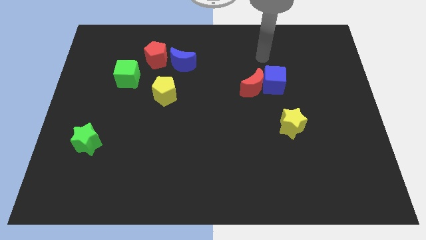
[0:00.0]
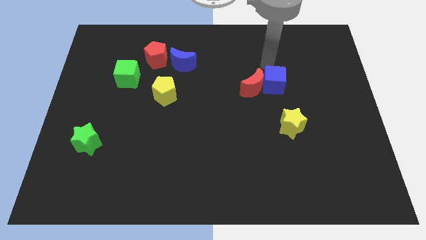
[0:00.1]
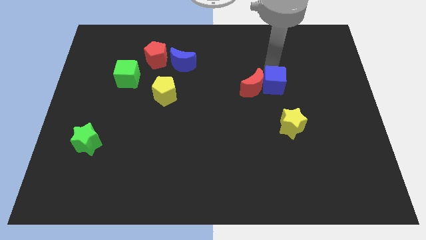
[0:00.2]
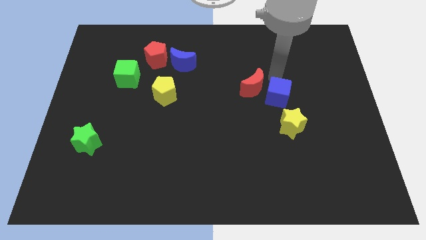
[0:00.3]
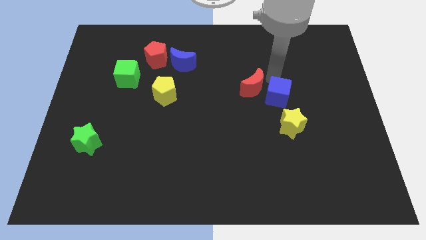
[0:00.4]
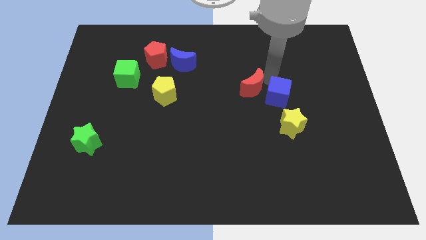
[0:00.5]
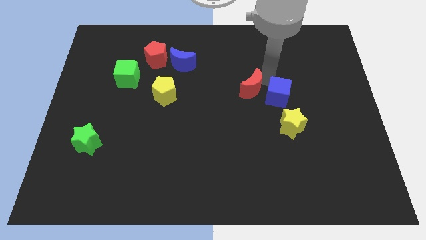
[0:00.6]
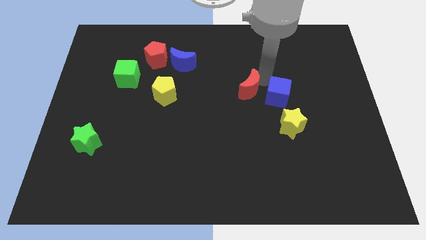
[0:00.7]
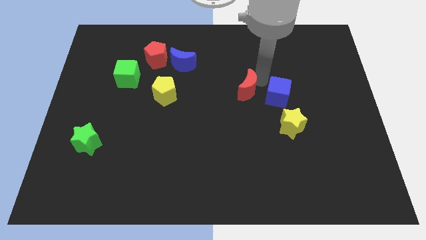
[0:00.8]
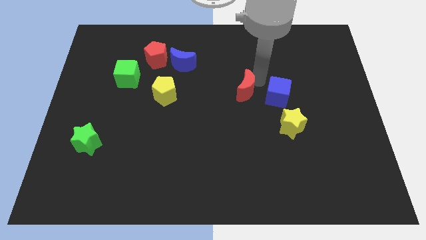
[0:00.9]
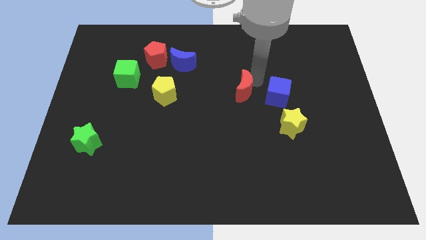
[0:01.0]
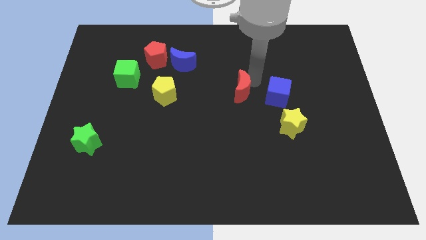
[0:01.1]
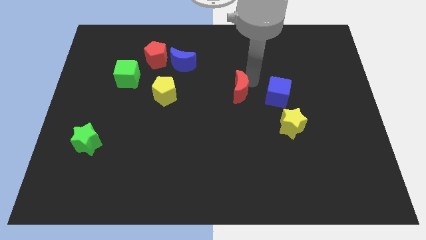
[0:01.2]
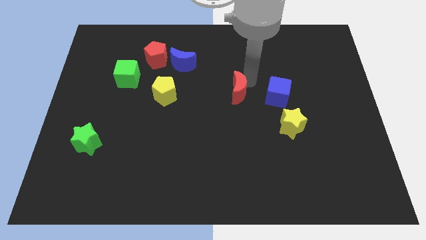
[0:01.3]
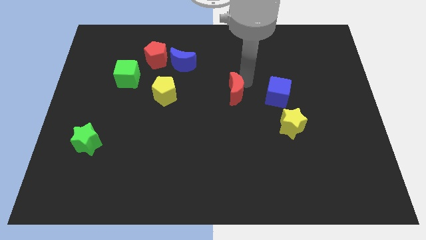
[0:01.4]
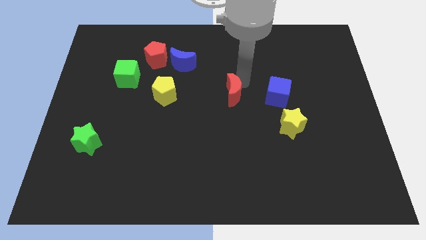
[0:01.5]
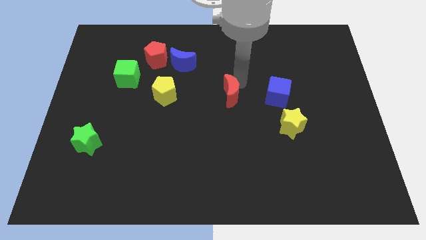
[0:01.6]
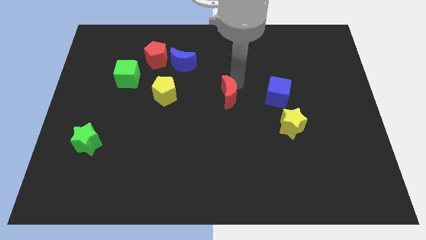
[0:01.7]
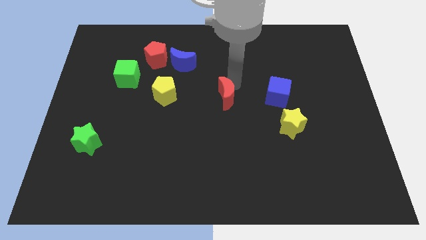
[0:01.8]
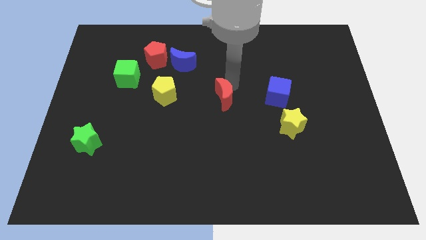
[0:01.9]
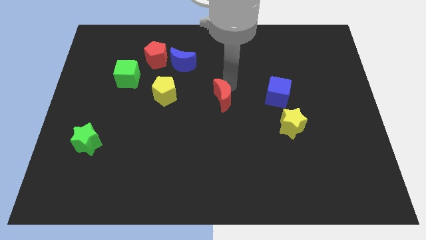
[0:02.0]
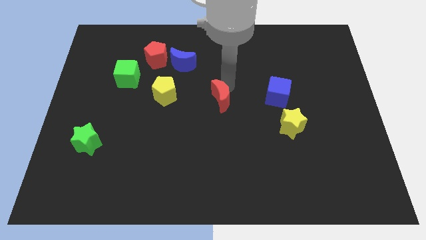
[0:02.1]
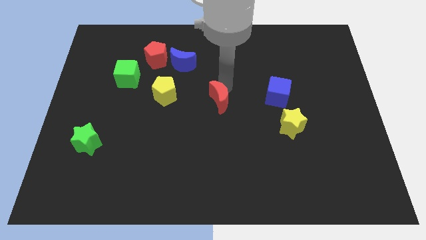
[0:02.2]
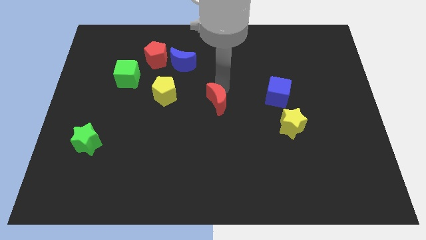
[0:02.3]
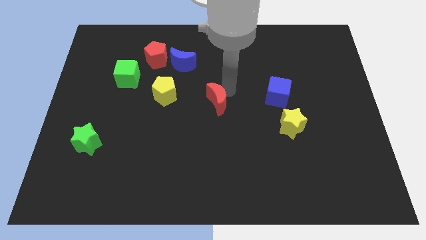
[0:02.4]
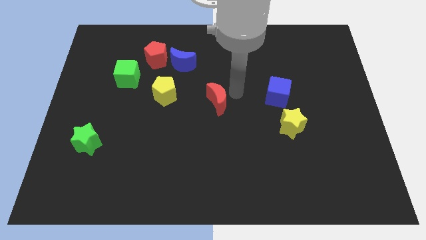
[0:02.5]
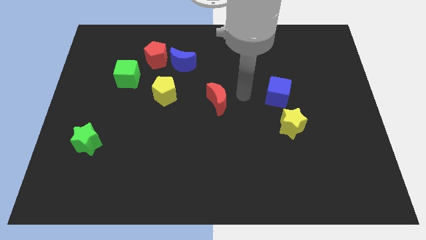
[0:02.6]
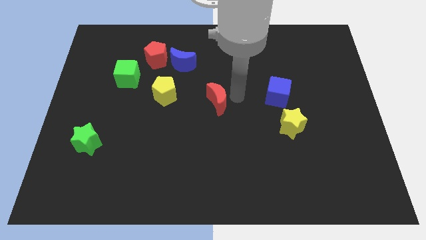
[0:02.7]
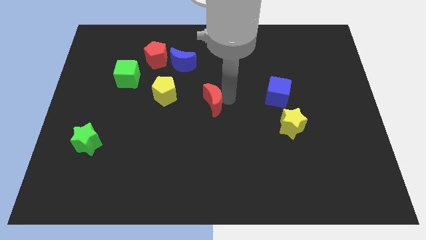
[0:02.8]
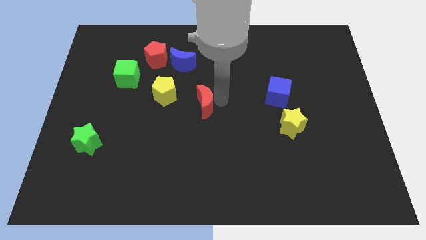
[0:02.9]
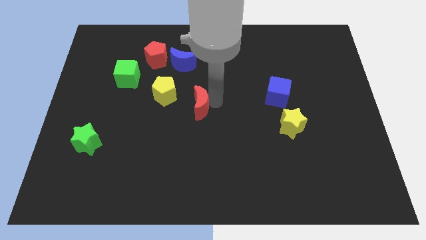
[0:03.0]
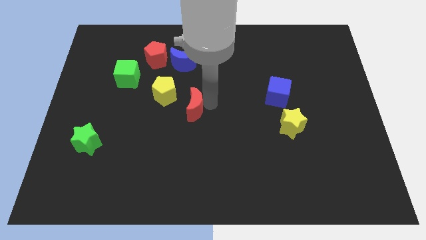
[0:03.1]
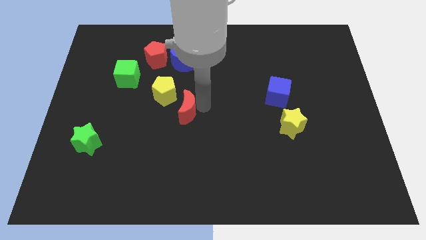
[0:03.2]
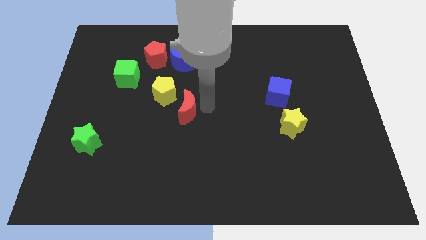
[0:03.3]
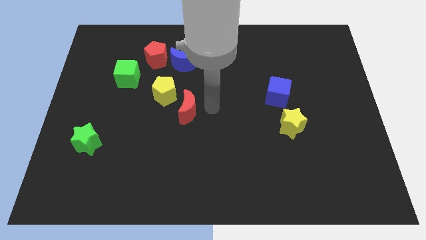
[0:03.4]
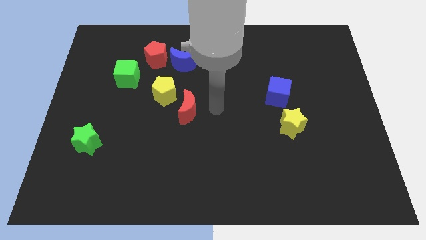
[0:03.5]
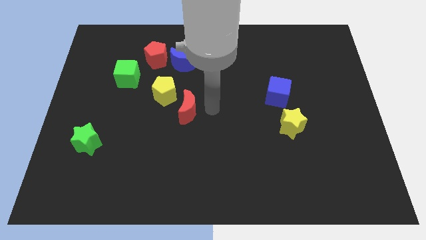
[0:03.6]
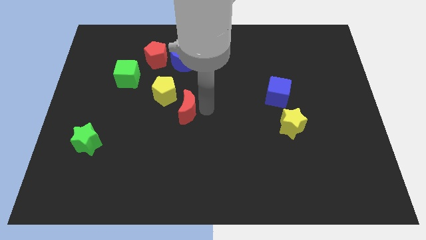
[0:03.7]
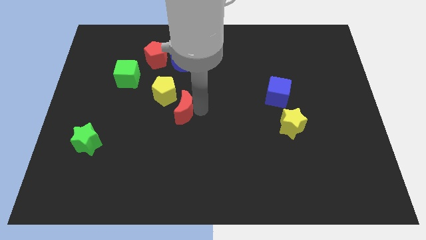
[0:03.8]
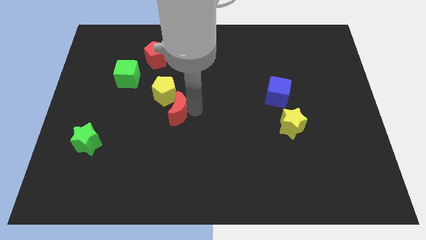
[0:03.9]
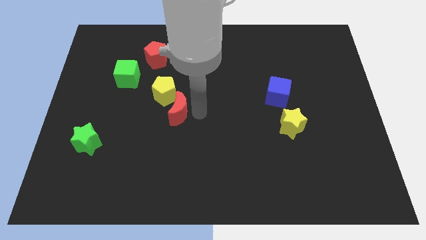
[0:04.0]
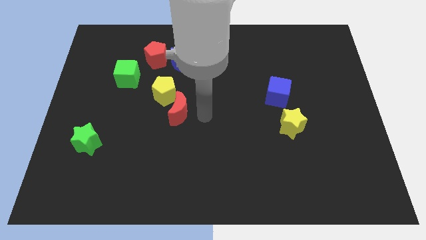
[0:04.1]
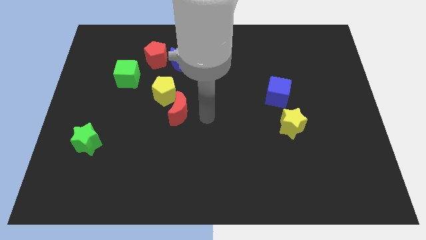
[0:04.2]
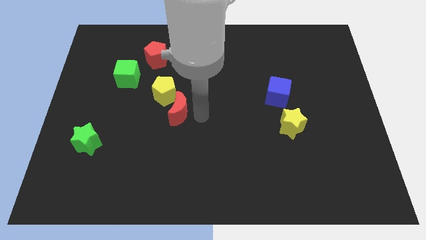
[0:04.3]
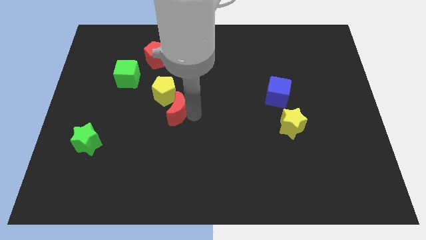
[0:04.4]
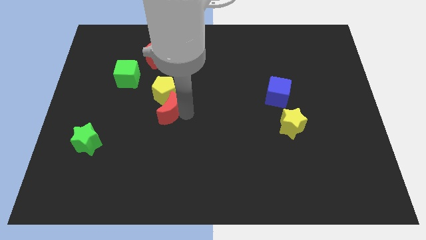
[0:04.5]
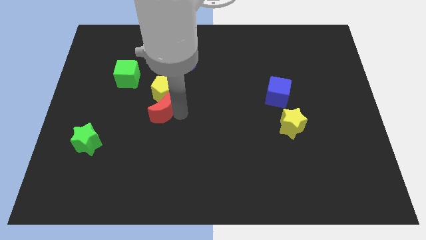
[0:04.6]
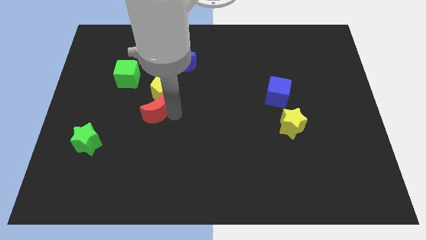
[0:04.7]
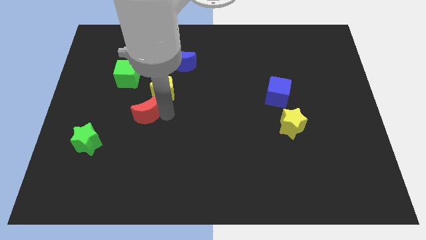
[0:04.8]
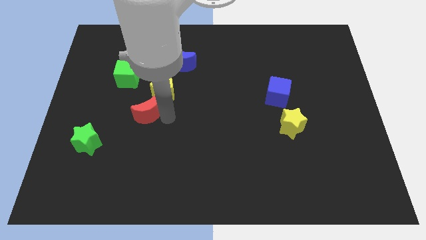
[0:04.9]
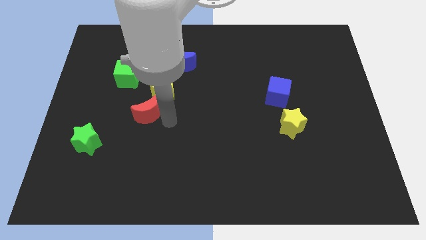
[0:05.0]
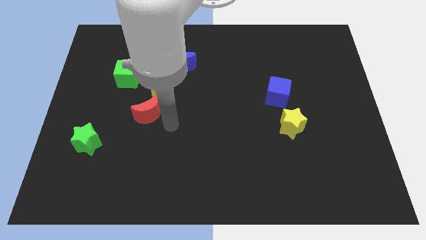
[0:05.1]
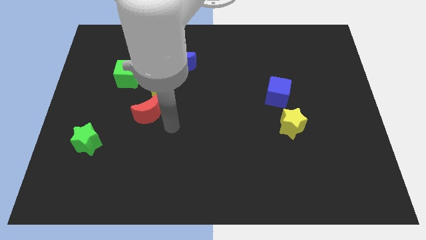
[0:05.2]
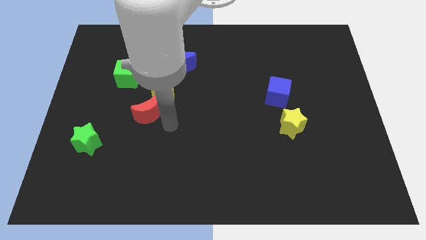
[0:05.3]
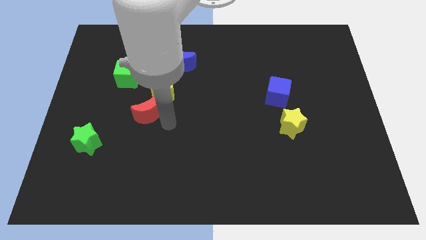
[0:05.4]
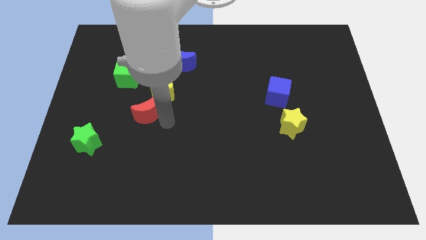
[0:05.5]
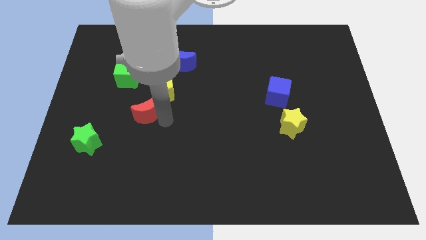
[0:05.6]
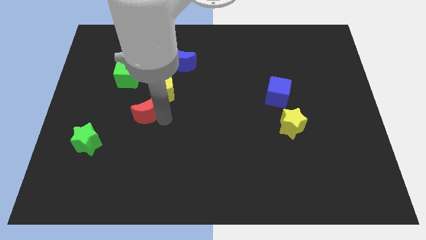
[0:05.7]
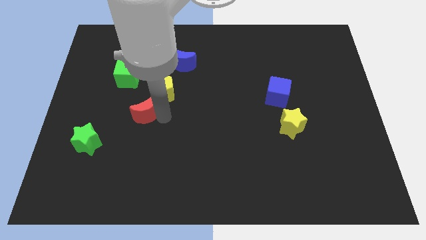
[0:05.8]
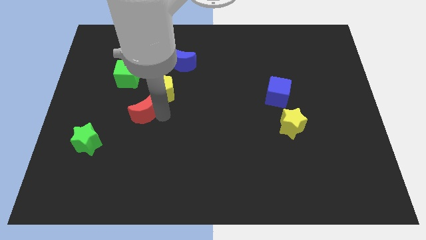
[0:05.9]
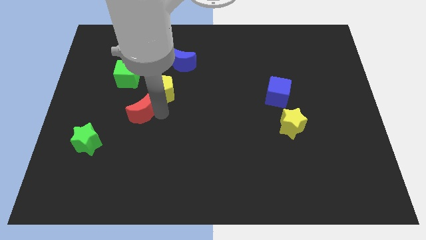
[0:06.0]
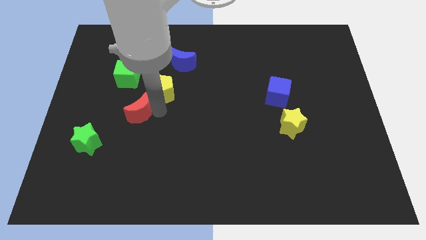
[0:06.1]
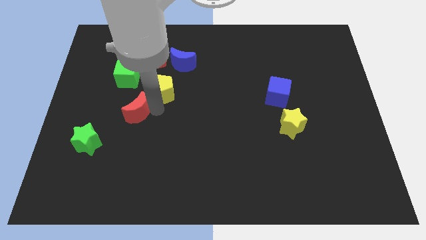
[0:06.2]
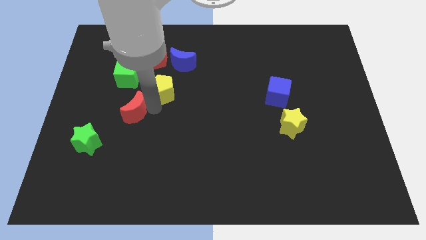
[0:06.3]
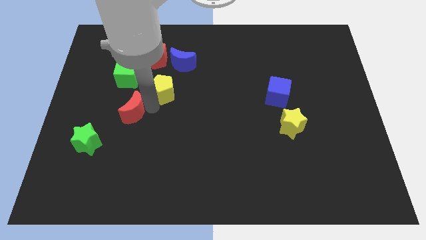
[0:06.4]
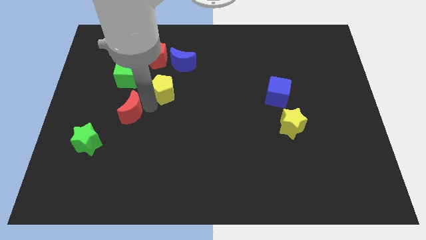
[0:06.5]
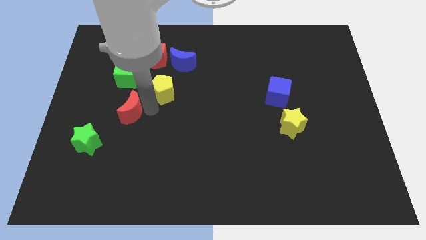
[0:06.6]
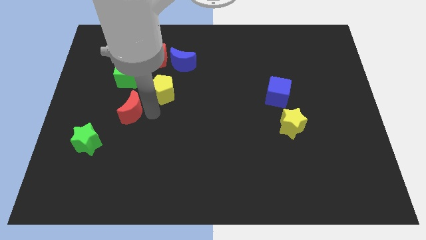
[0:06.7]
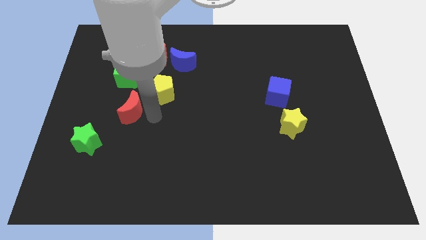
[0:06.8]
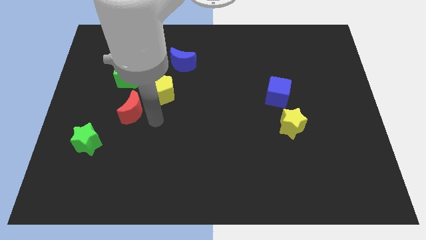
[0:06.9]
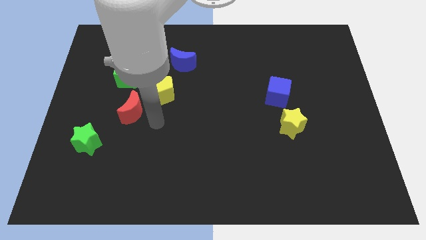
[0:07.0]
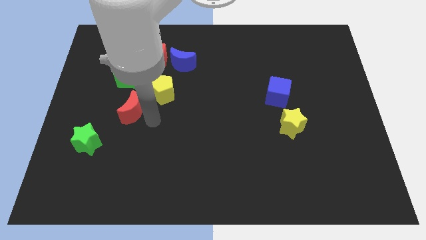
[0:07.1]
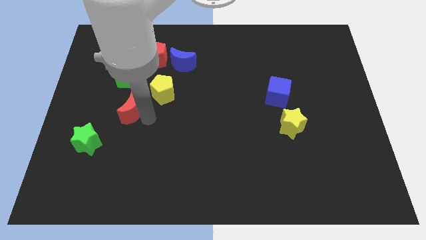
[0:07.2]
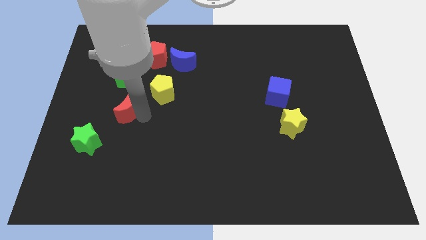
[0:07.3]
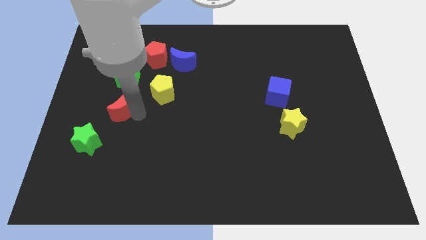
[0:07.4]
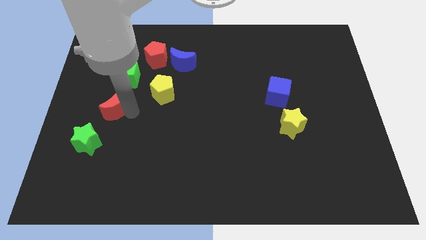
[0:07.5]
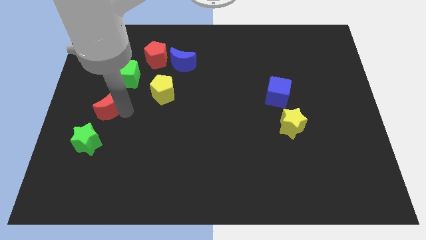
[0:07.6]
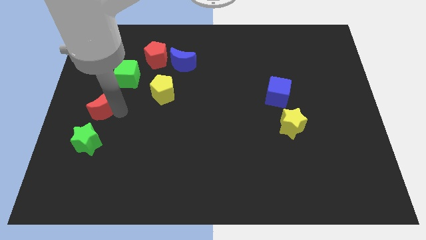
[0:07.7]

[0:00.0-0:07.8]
put the red moon to the left side of the board
